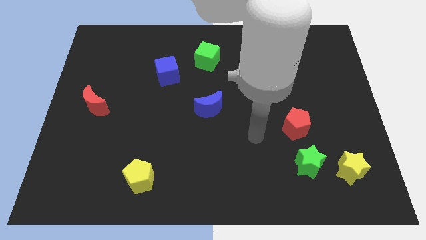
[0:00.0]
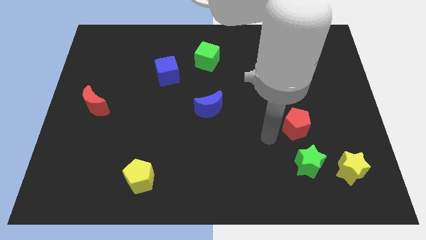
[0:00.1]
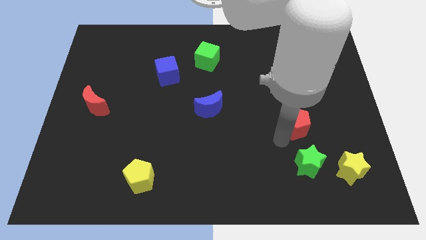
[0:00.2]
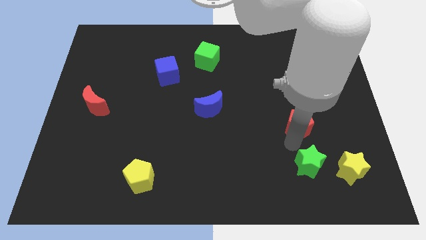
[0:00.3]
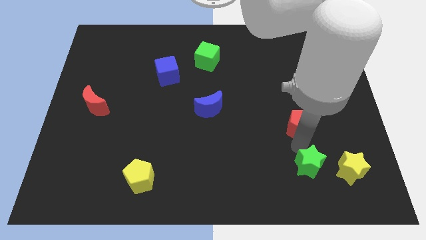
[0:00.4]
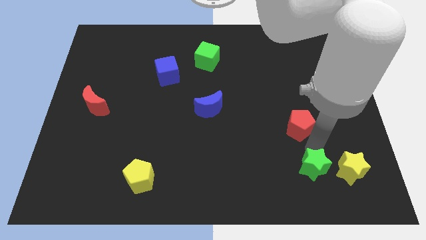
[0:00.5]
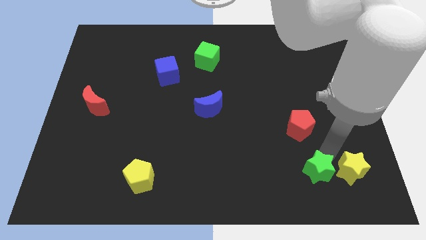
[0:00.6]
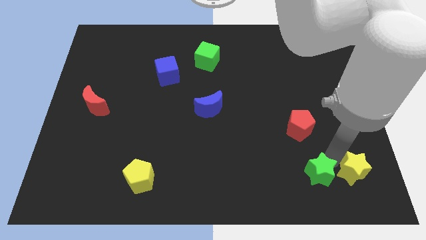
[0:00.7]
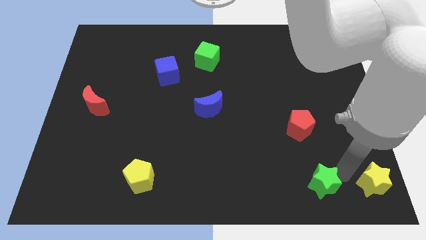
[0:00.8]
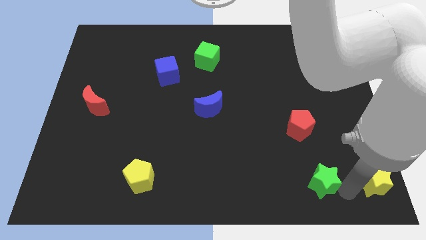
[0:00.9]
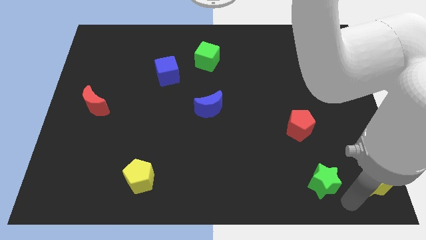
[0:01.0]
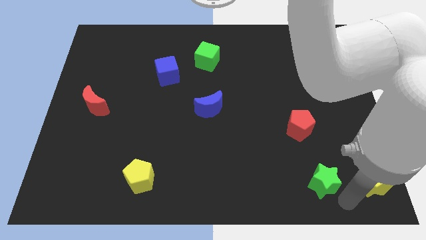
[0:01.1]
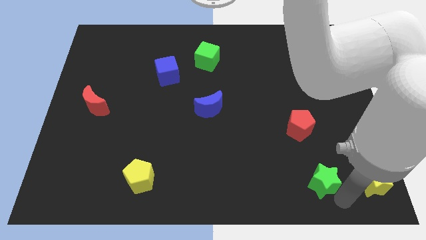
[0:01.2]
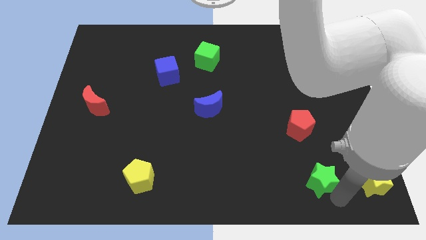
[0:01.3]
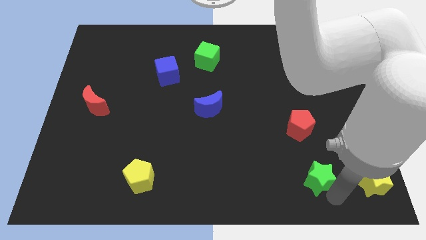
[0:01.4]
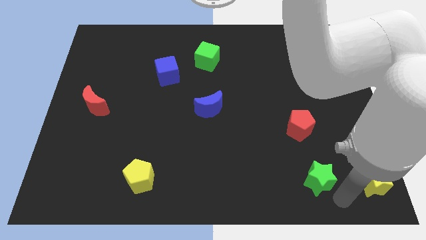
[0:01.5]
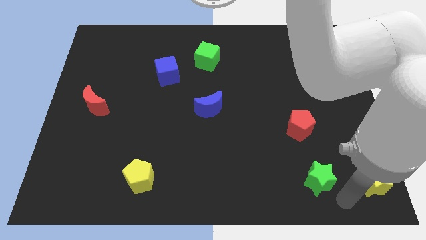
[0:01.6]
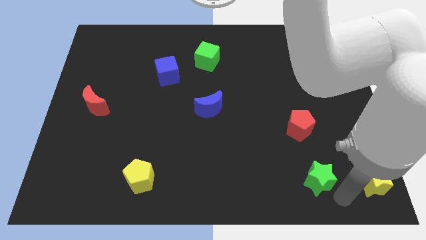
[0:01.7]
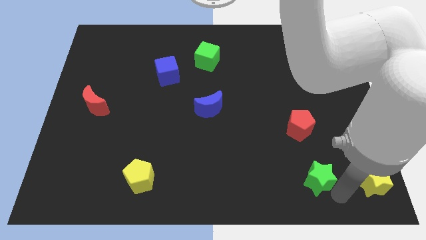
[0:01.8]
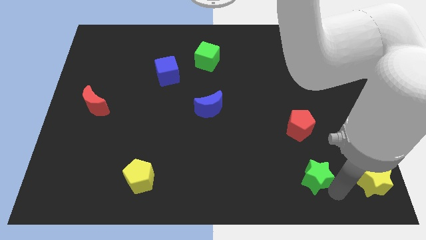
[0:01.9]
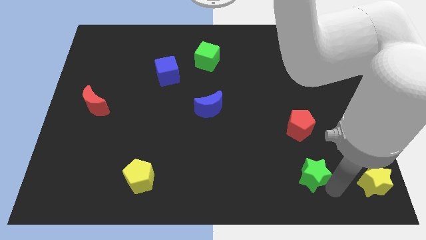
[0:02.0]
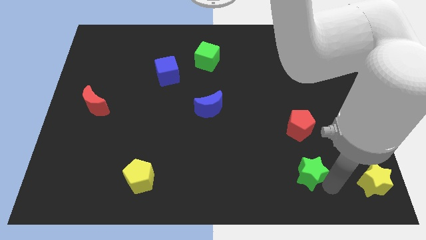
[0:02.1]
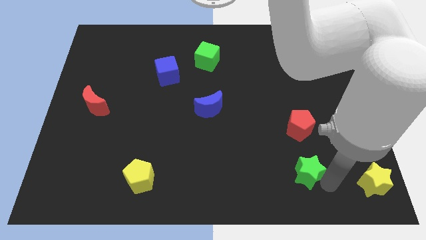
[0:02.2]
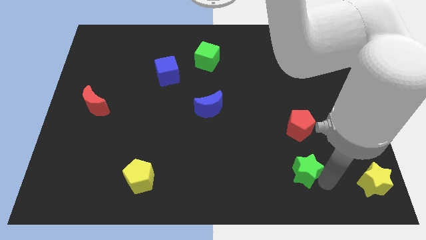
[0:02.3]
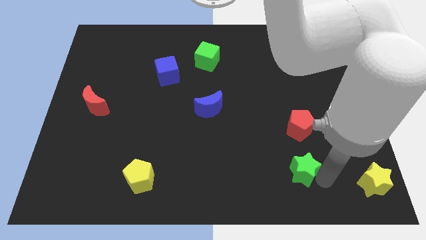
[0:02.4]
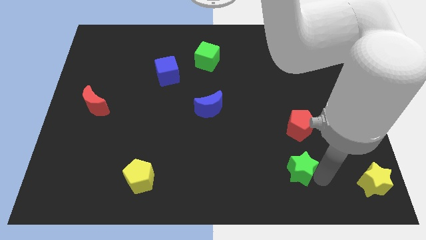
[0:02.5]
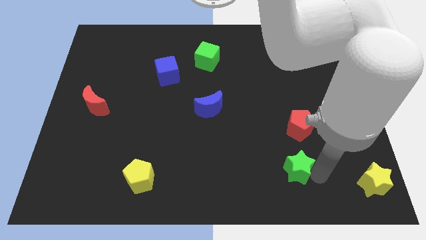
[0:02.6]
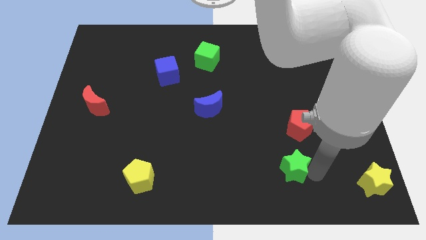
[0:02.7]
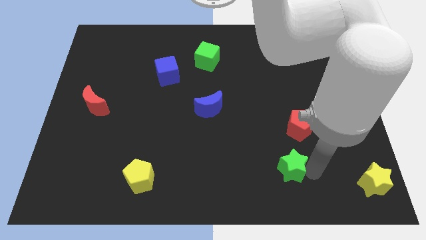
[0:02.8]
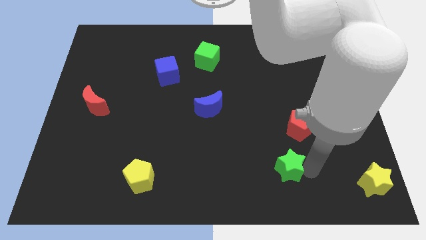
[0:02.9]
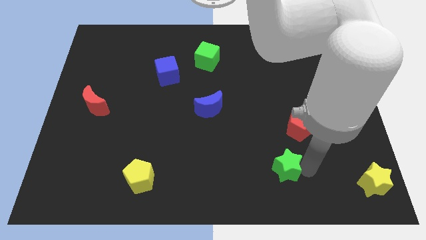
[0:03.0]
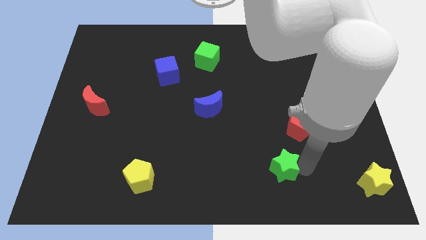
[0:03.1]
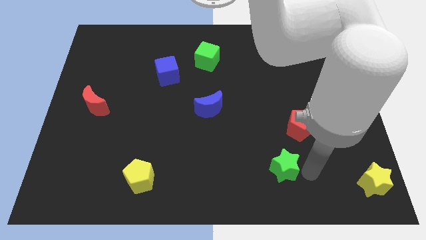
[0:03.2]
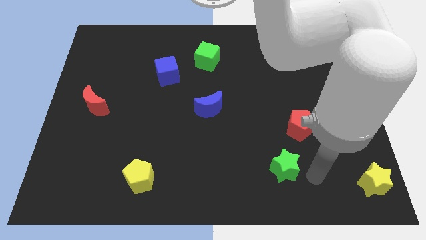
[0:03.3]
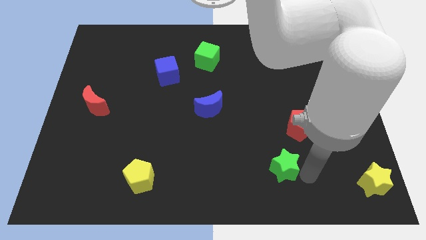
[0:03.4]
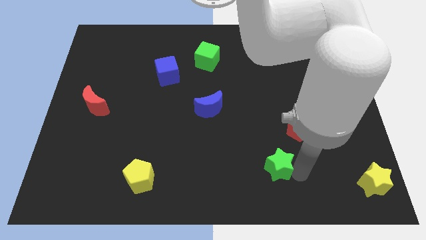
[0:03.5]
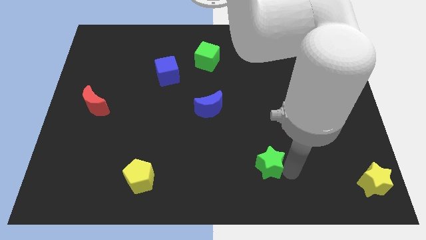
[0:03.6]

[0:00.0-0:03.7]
slightly push the green star to the left

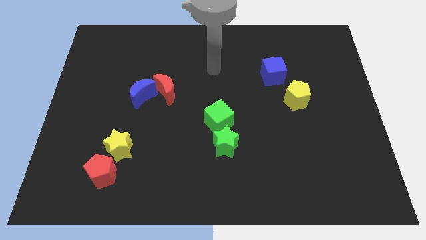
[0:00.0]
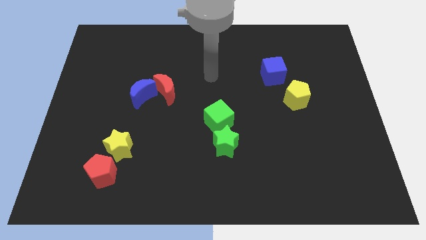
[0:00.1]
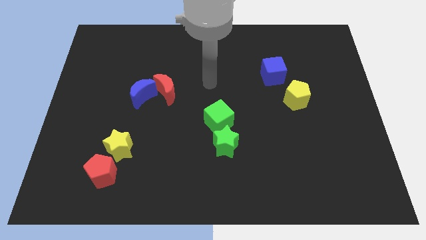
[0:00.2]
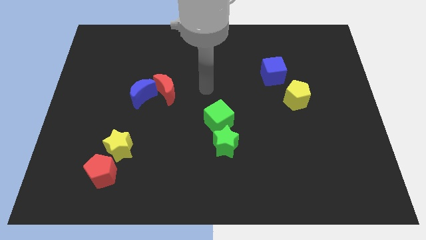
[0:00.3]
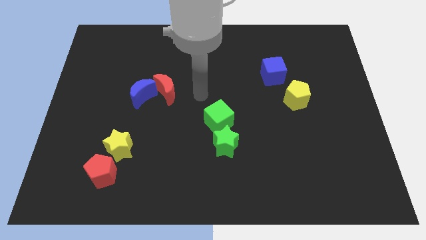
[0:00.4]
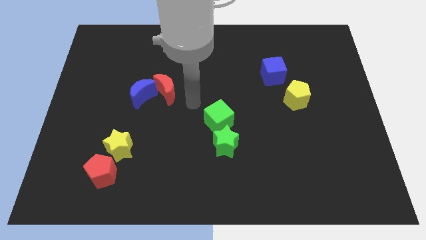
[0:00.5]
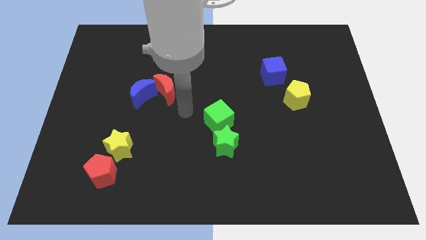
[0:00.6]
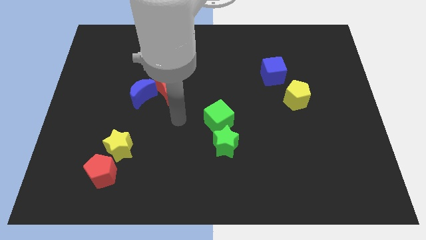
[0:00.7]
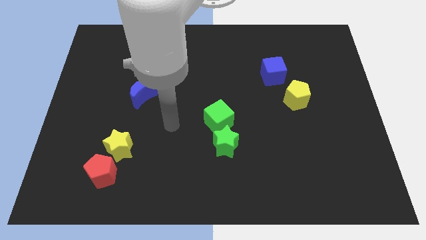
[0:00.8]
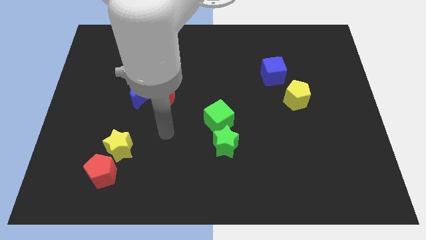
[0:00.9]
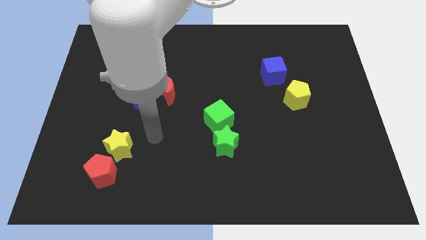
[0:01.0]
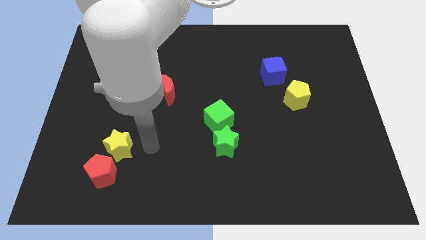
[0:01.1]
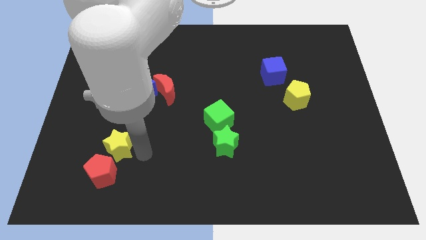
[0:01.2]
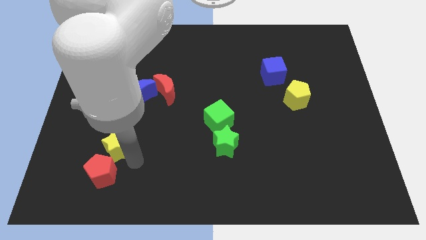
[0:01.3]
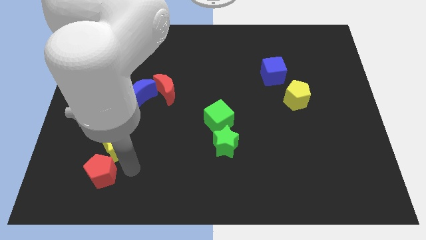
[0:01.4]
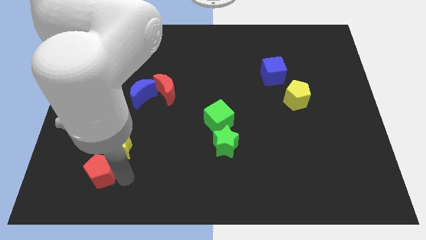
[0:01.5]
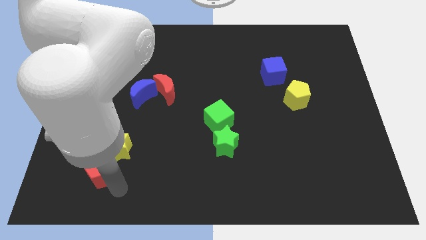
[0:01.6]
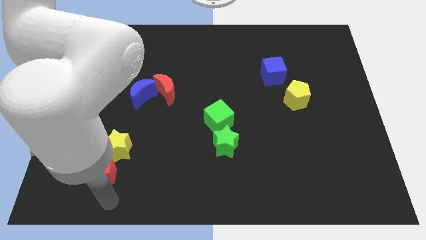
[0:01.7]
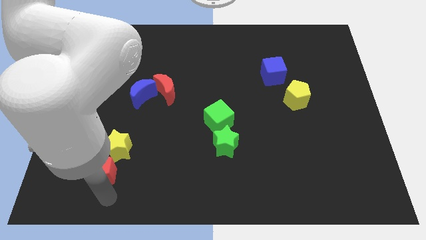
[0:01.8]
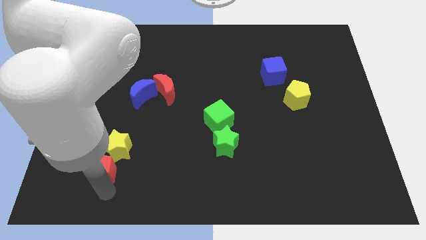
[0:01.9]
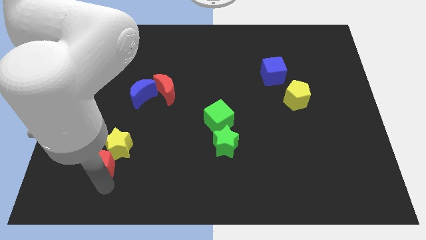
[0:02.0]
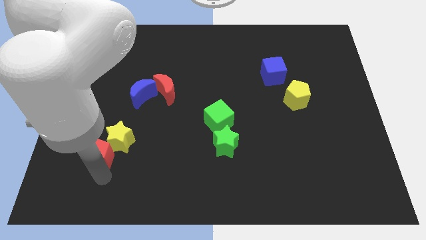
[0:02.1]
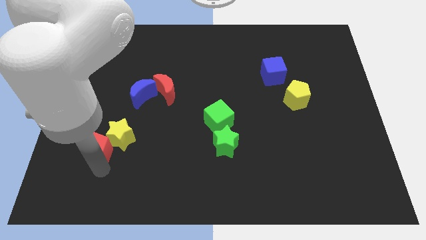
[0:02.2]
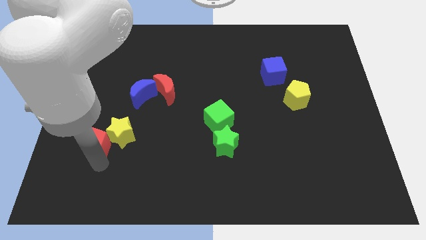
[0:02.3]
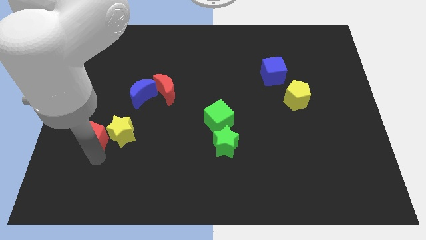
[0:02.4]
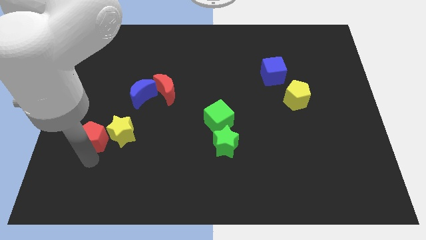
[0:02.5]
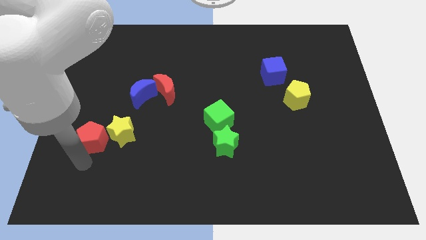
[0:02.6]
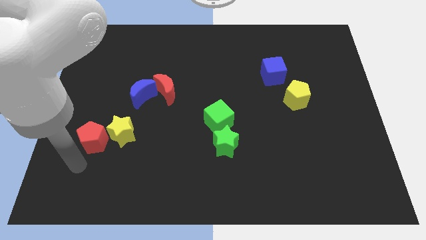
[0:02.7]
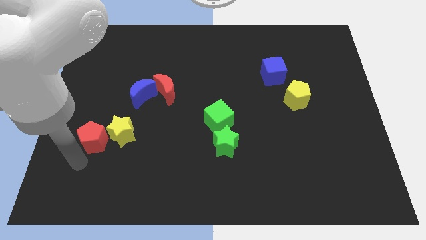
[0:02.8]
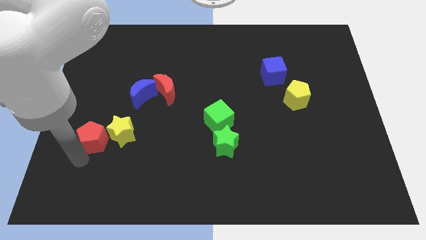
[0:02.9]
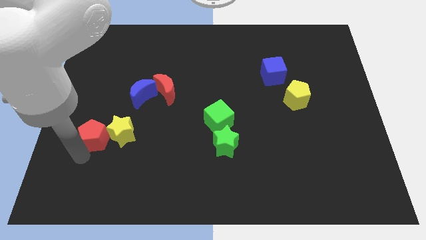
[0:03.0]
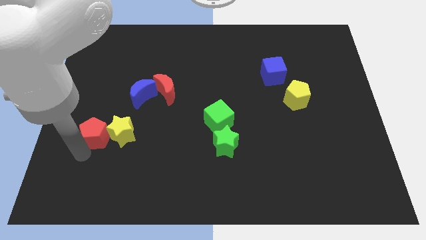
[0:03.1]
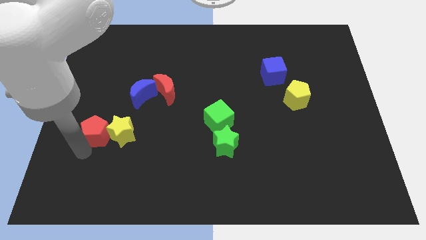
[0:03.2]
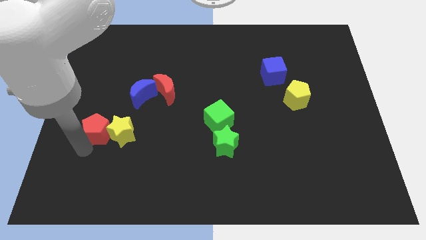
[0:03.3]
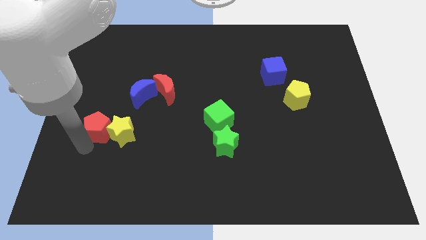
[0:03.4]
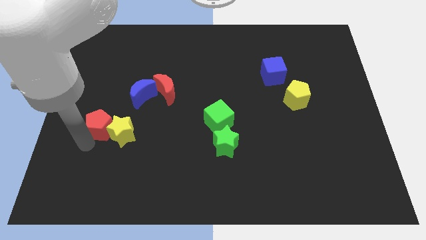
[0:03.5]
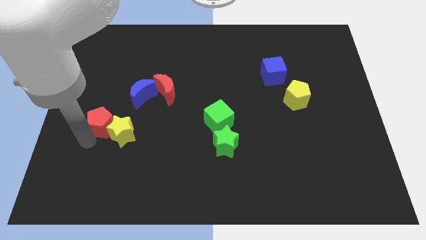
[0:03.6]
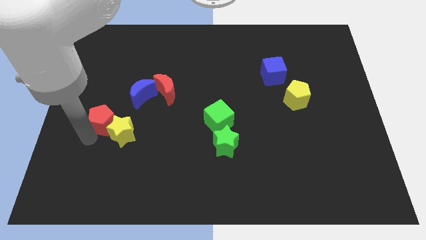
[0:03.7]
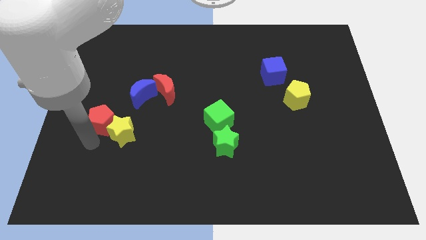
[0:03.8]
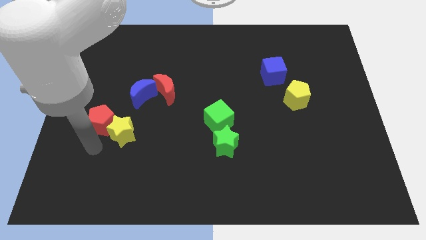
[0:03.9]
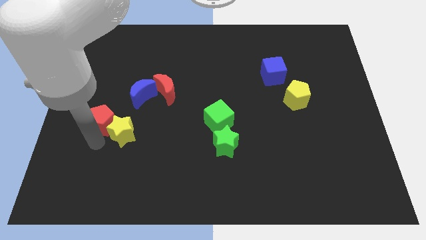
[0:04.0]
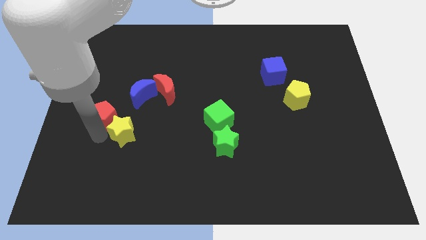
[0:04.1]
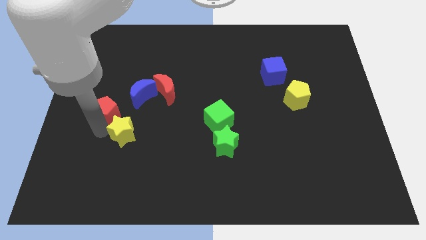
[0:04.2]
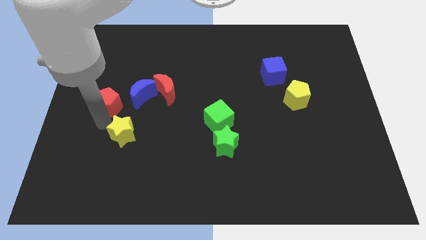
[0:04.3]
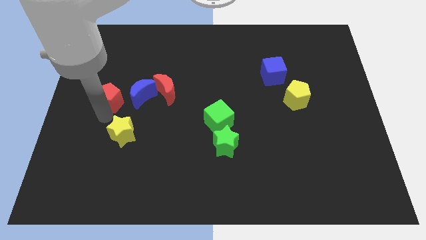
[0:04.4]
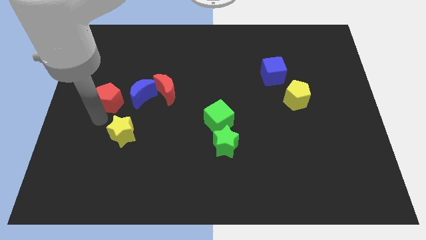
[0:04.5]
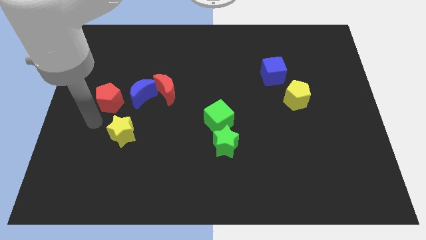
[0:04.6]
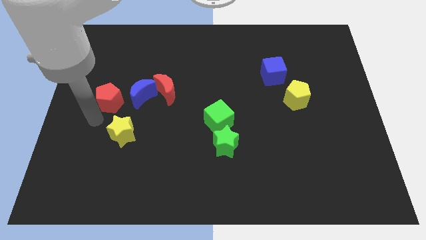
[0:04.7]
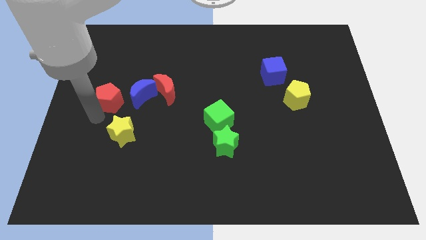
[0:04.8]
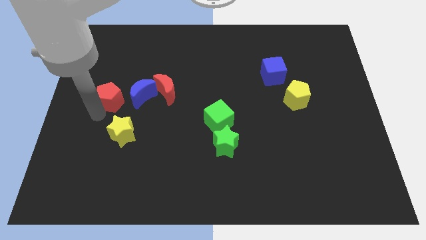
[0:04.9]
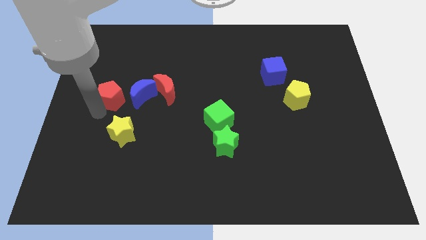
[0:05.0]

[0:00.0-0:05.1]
slide the red pentagon upwards
